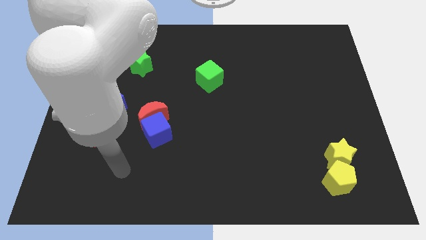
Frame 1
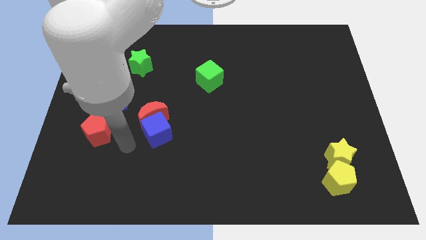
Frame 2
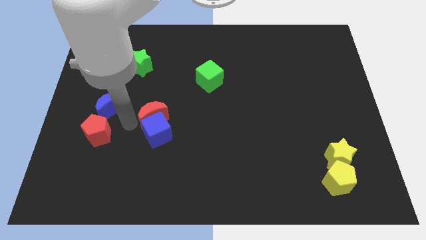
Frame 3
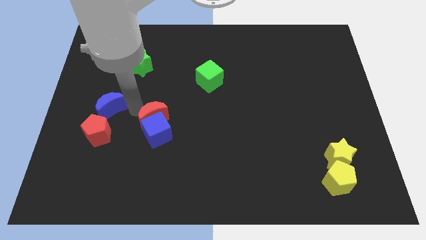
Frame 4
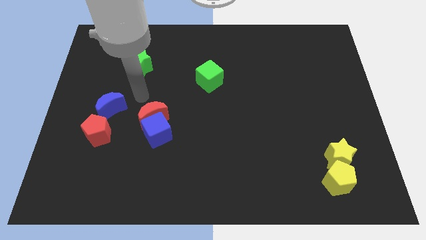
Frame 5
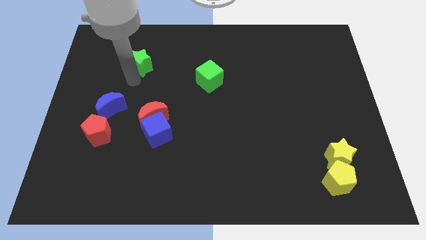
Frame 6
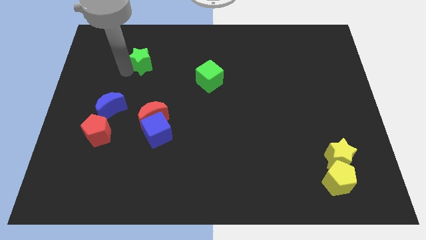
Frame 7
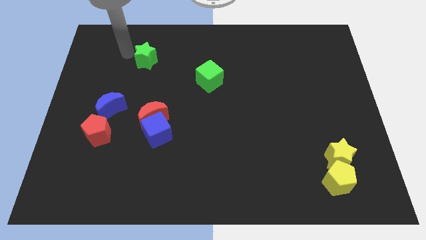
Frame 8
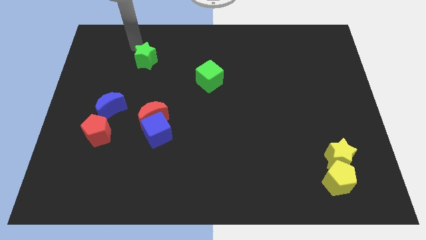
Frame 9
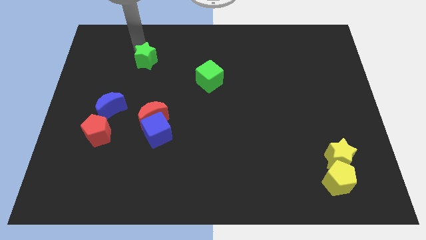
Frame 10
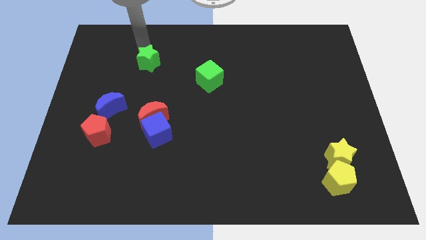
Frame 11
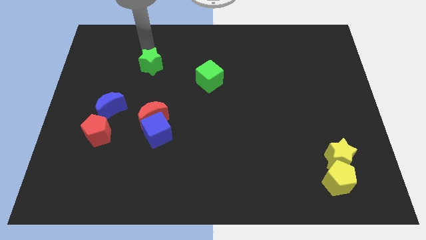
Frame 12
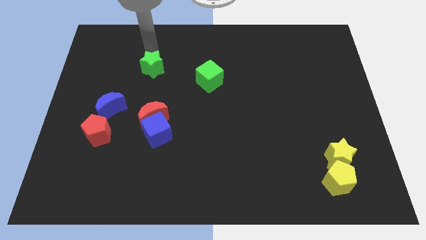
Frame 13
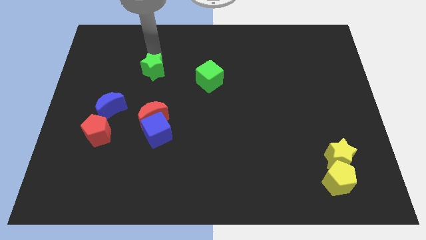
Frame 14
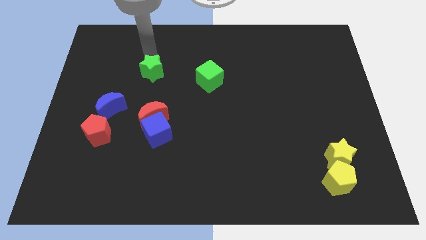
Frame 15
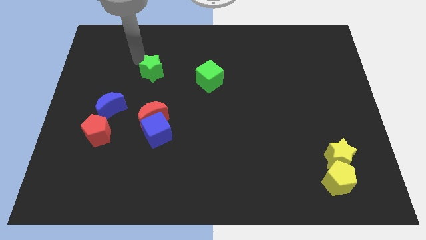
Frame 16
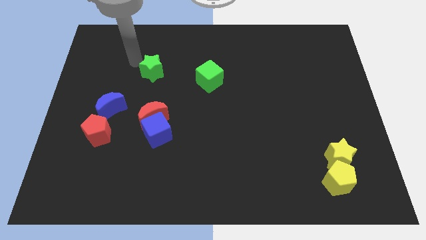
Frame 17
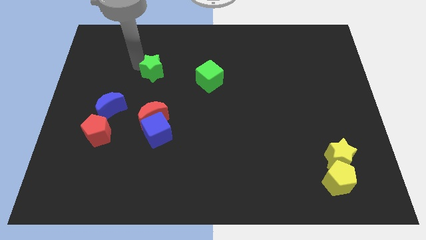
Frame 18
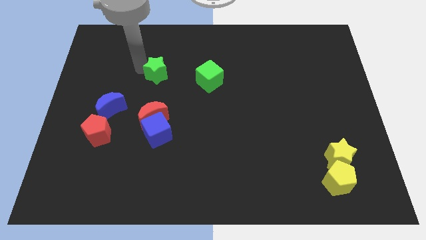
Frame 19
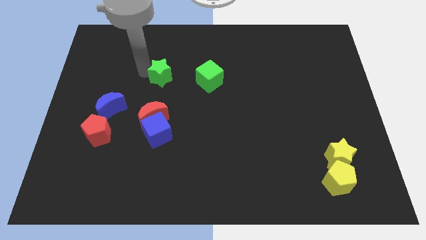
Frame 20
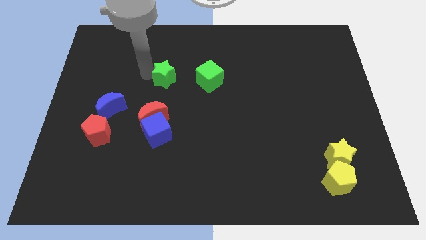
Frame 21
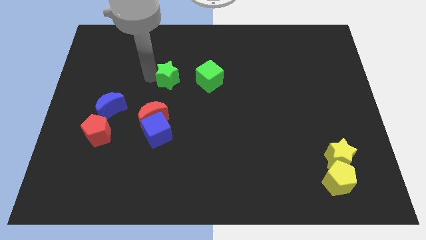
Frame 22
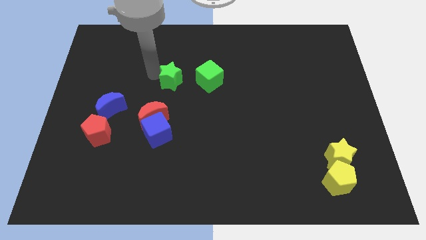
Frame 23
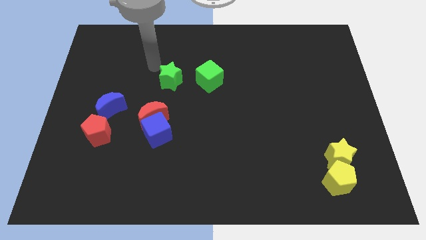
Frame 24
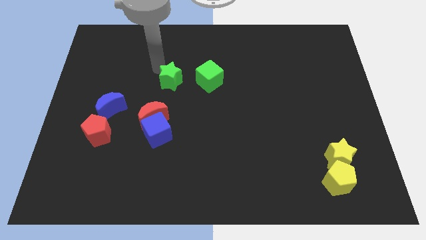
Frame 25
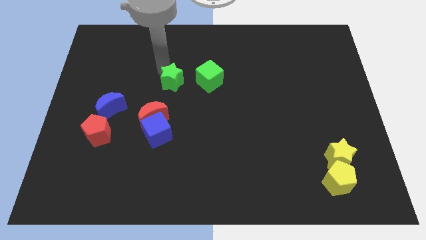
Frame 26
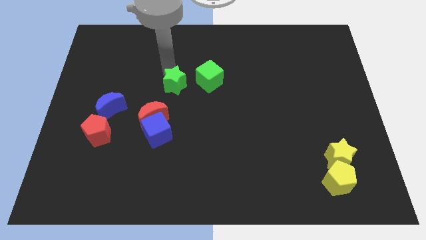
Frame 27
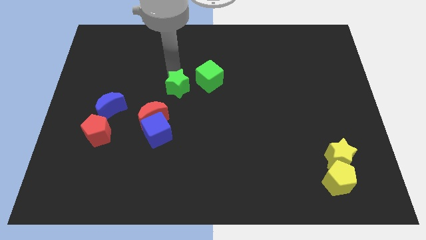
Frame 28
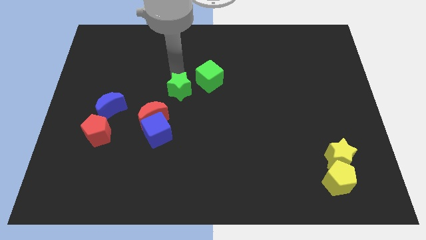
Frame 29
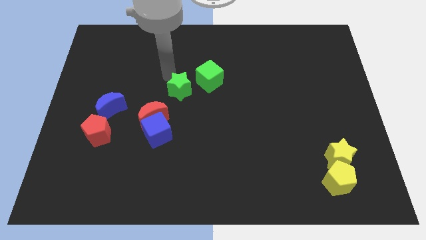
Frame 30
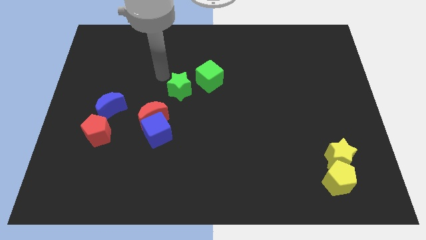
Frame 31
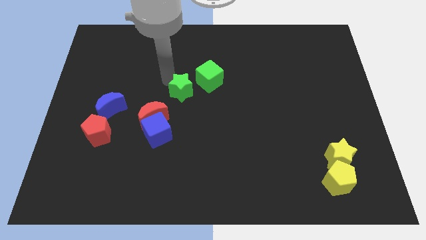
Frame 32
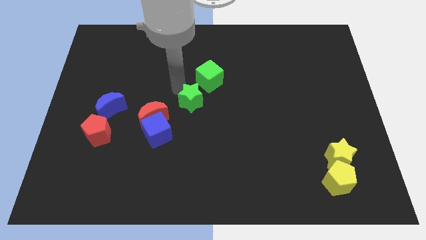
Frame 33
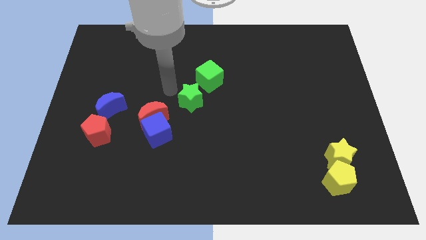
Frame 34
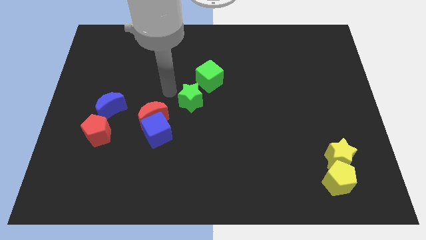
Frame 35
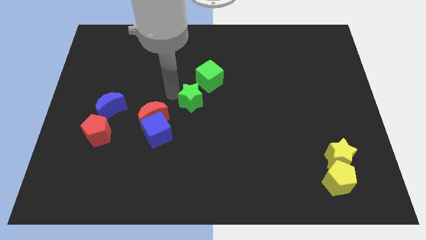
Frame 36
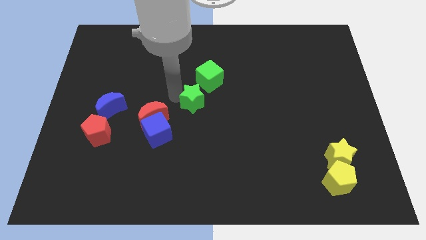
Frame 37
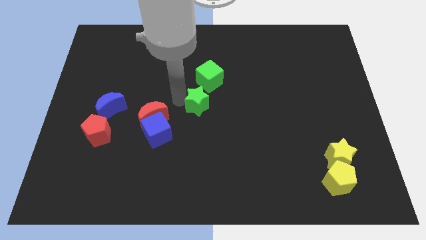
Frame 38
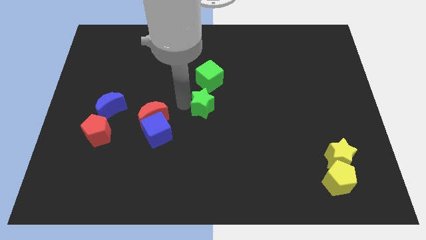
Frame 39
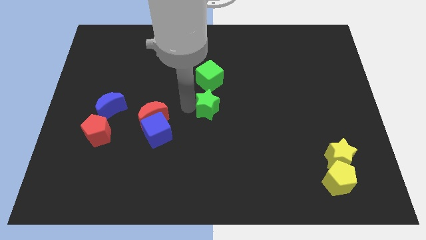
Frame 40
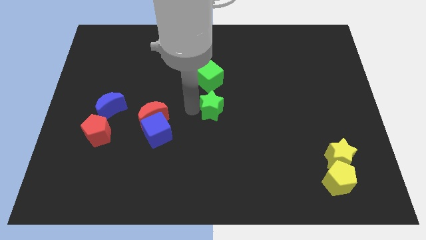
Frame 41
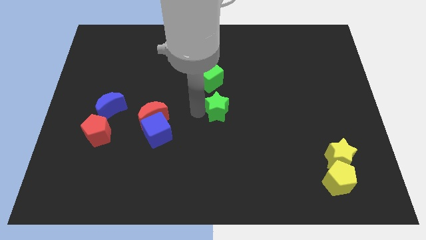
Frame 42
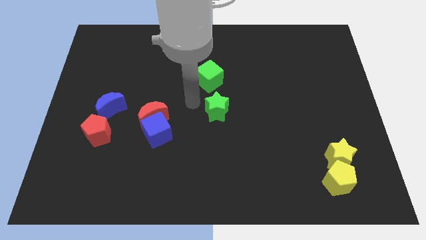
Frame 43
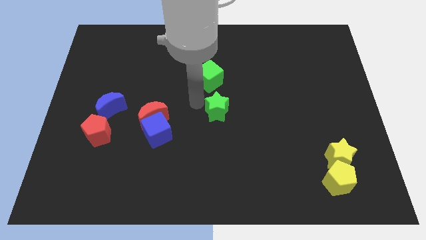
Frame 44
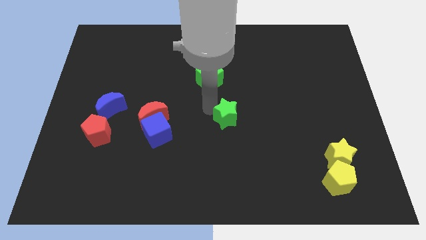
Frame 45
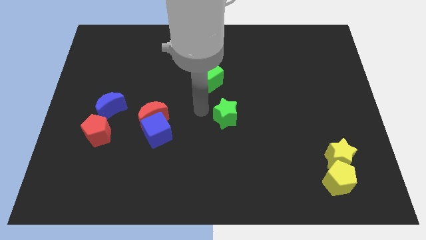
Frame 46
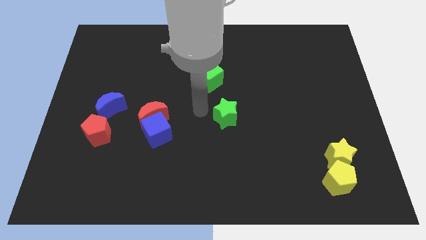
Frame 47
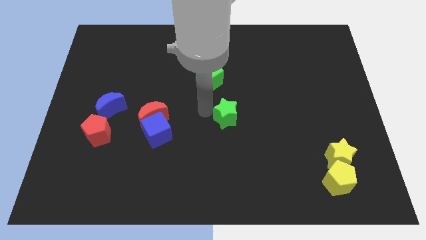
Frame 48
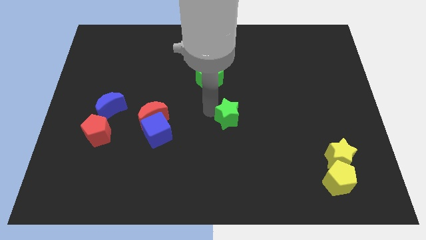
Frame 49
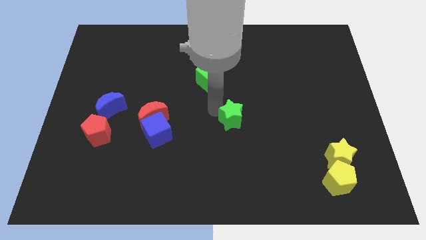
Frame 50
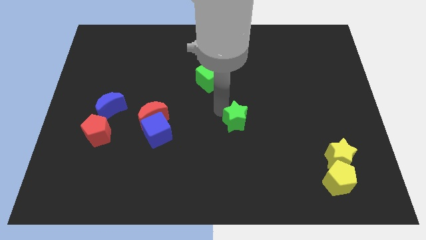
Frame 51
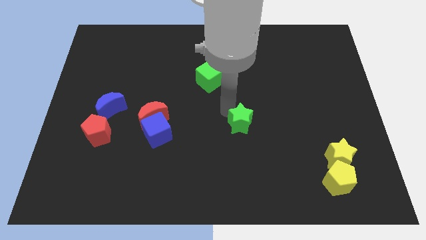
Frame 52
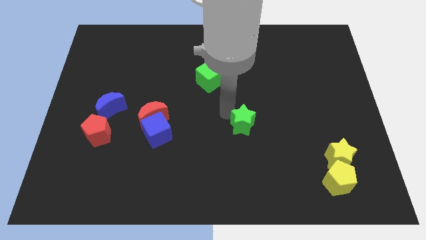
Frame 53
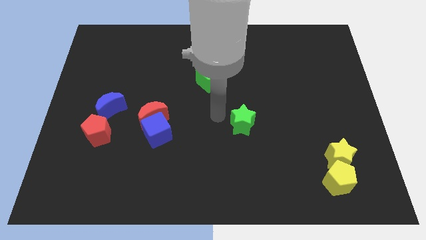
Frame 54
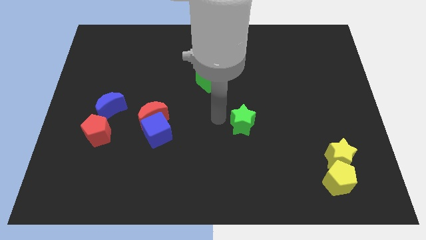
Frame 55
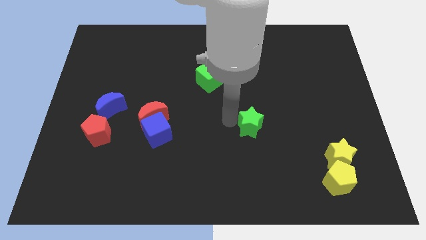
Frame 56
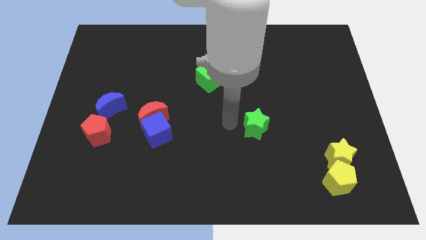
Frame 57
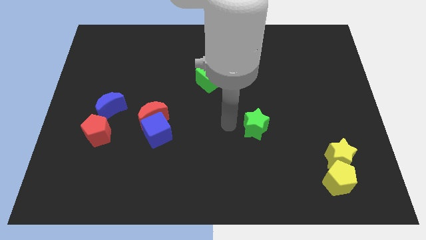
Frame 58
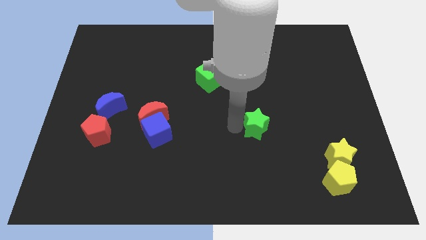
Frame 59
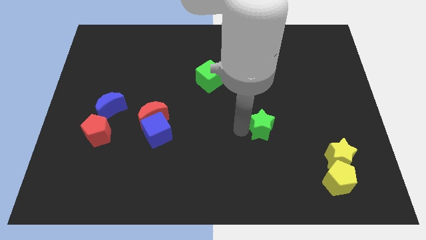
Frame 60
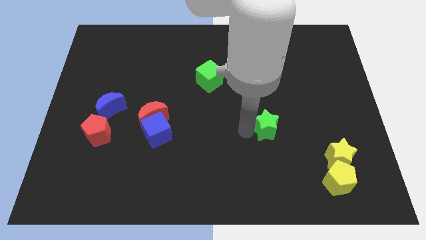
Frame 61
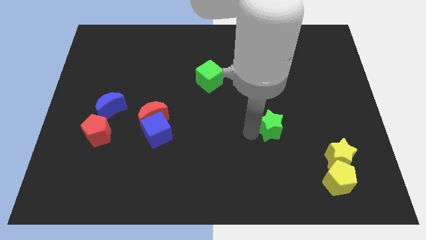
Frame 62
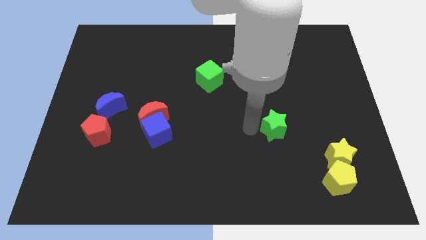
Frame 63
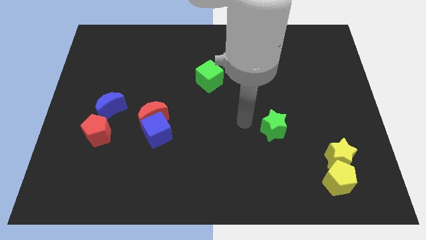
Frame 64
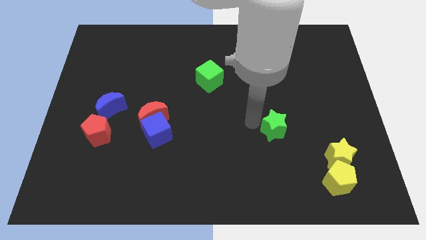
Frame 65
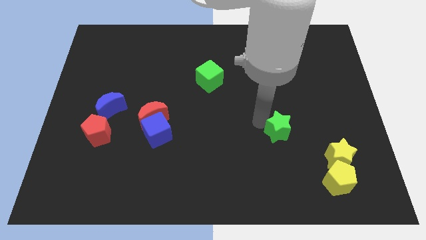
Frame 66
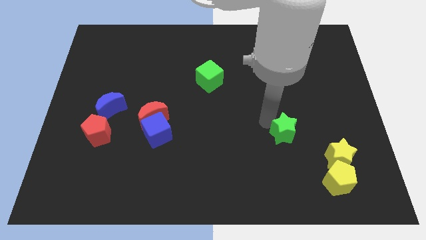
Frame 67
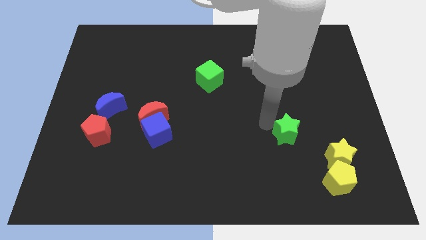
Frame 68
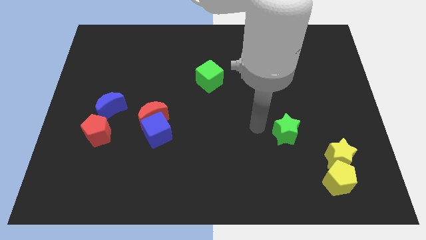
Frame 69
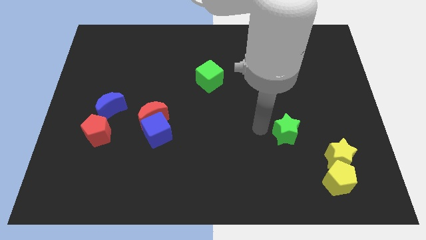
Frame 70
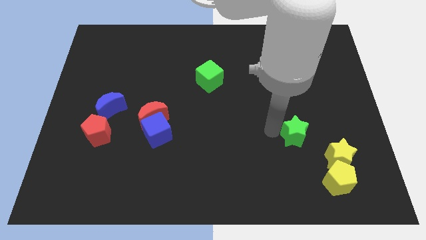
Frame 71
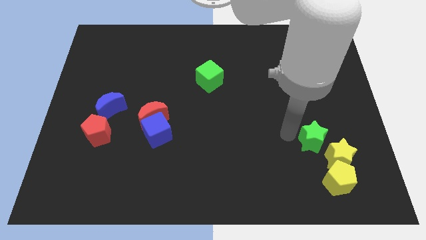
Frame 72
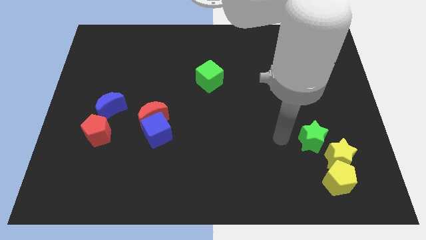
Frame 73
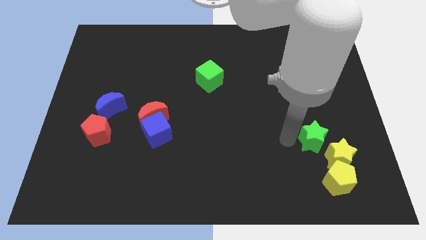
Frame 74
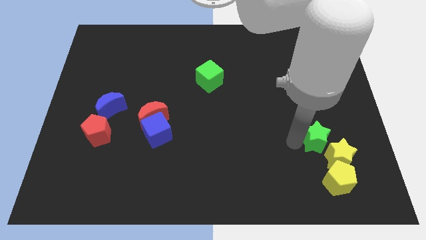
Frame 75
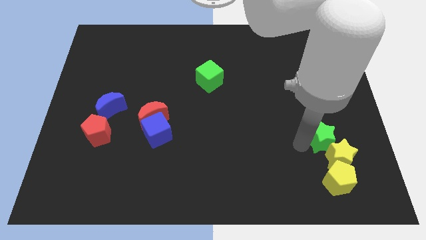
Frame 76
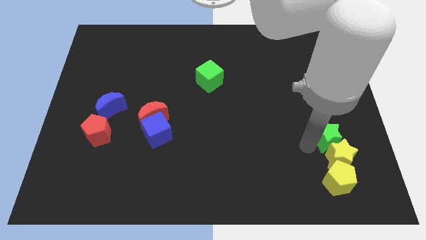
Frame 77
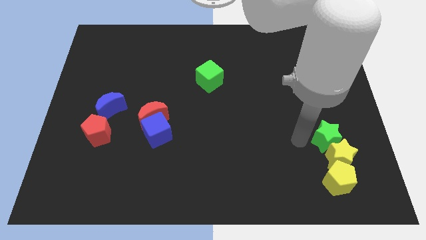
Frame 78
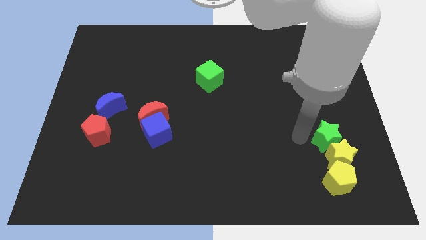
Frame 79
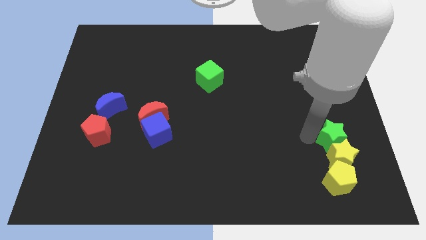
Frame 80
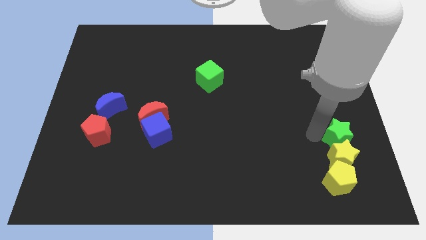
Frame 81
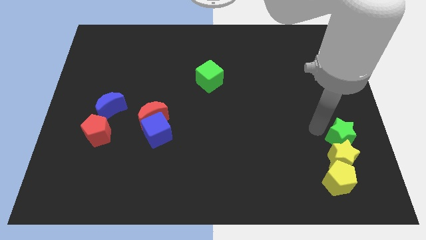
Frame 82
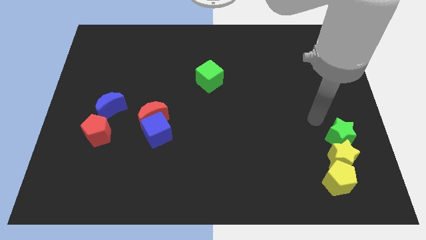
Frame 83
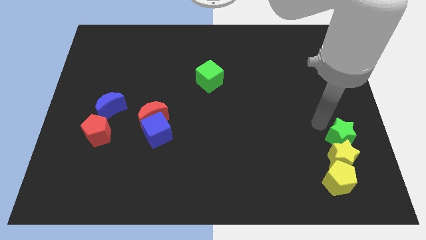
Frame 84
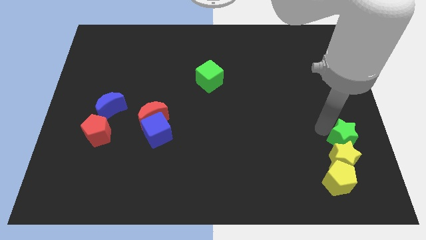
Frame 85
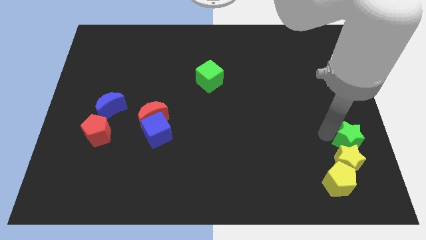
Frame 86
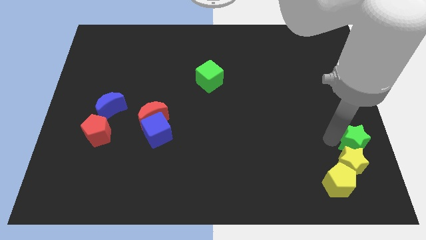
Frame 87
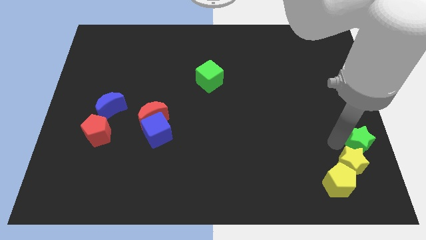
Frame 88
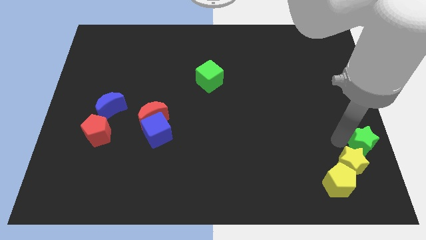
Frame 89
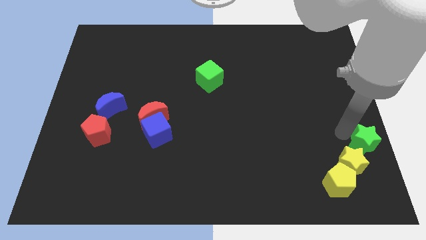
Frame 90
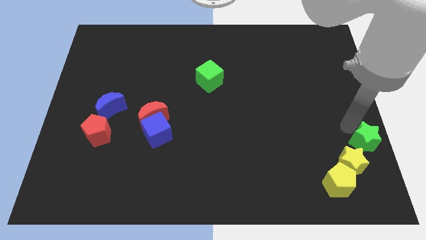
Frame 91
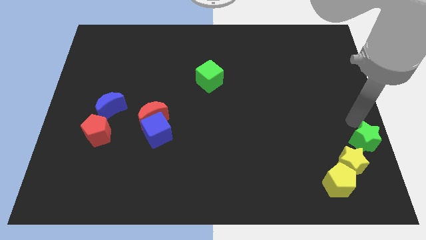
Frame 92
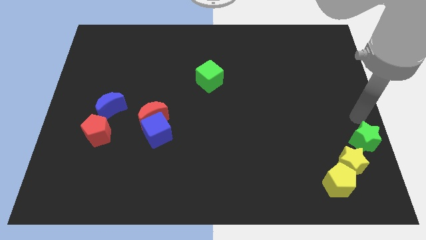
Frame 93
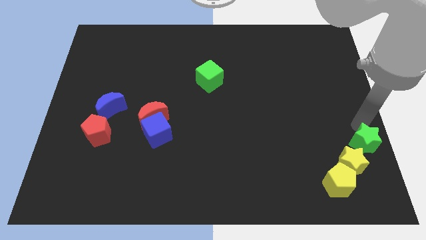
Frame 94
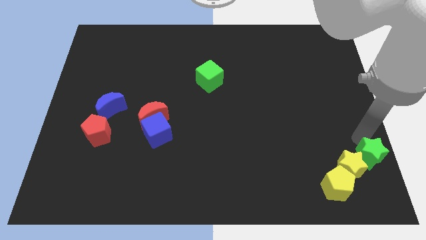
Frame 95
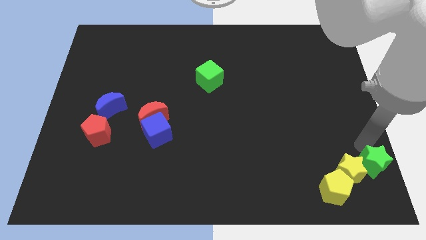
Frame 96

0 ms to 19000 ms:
move the green star to the lower right corner
